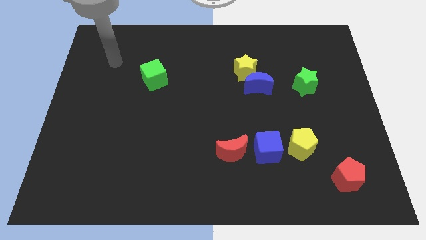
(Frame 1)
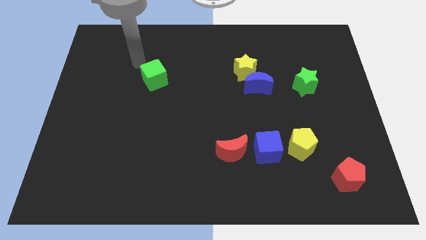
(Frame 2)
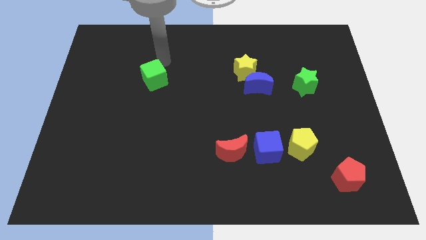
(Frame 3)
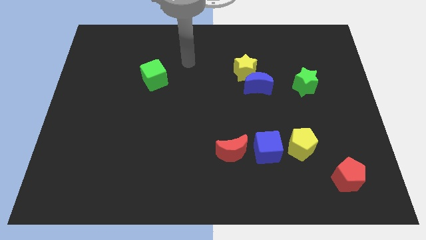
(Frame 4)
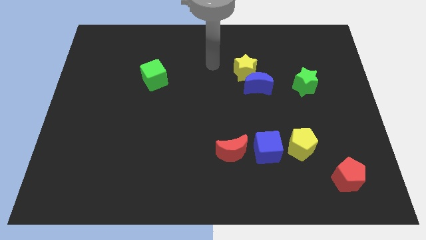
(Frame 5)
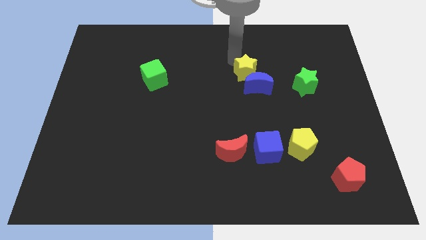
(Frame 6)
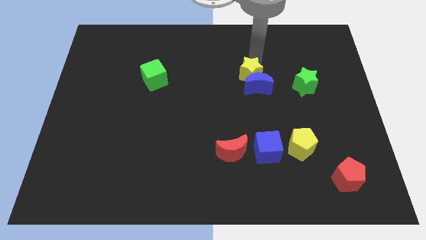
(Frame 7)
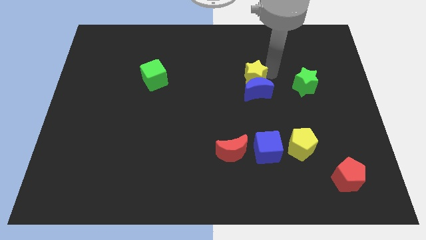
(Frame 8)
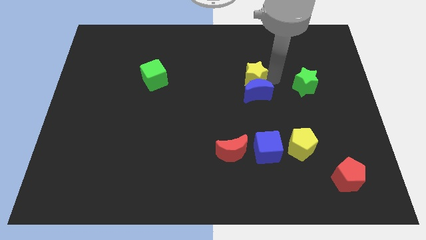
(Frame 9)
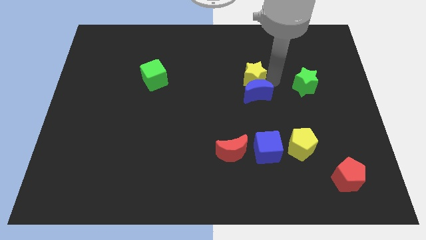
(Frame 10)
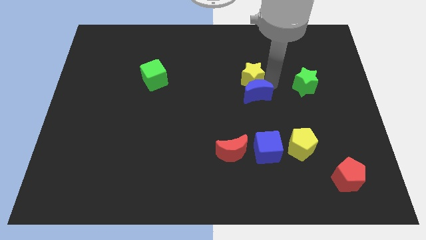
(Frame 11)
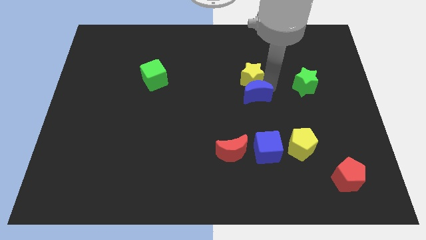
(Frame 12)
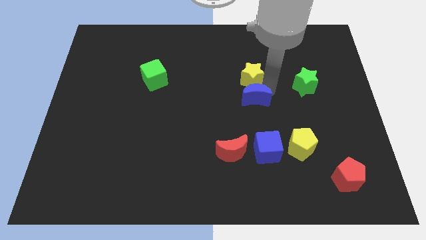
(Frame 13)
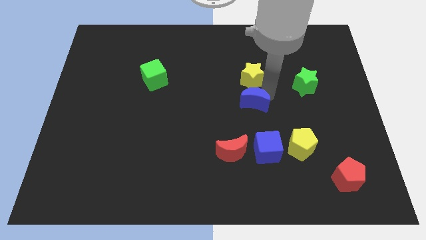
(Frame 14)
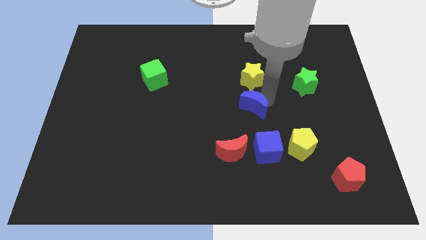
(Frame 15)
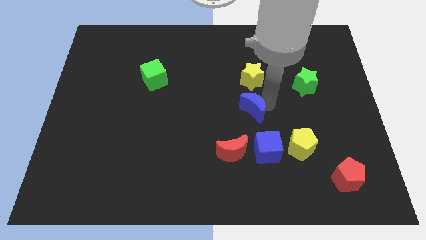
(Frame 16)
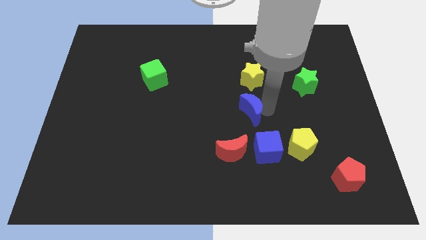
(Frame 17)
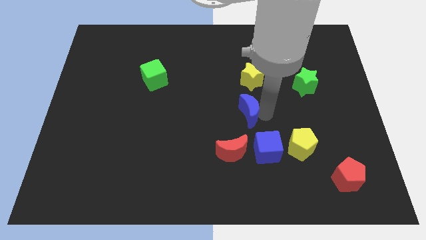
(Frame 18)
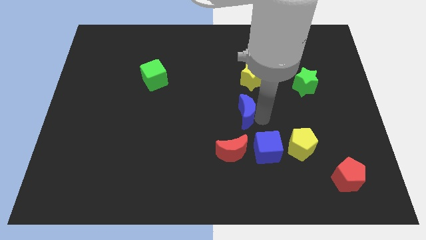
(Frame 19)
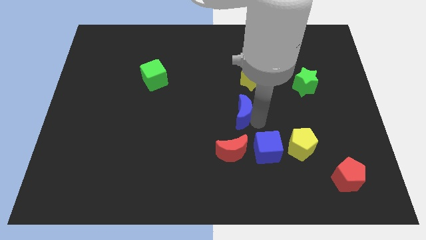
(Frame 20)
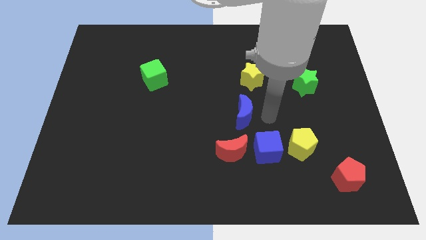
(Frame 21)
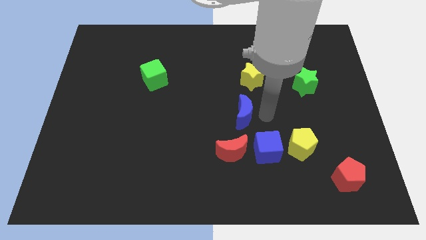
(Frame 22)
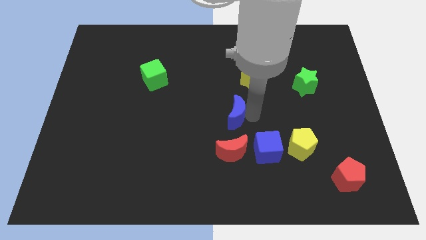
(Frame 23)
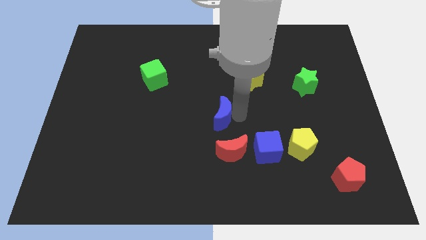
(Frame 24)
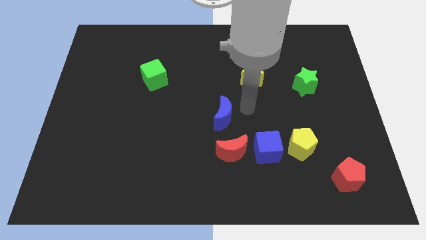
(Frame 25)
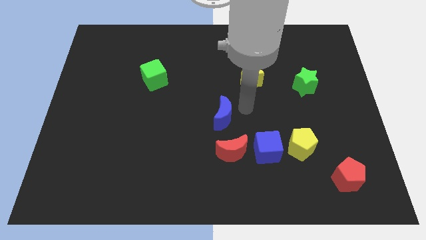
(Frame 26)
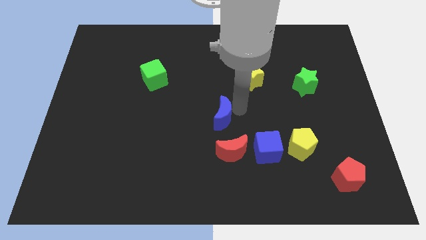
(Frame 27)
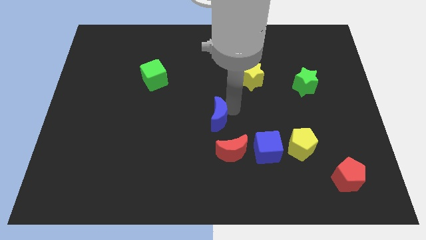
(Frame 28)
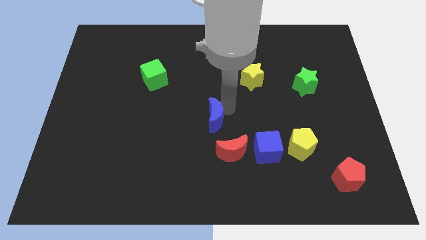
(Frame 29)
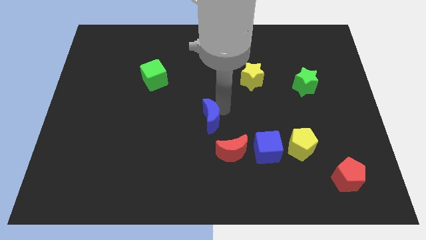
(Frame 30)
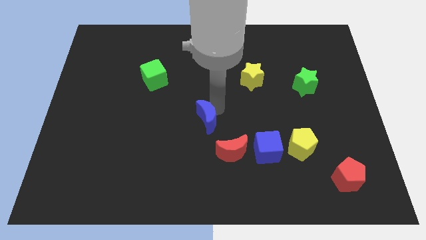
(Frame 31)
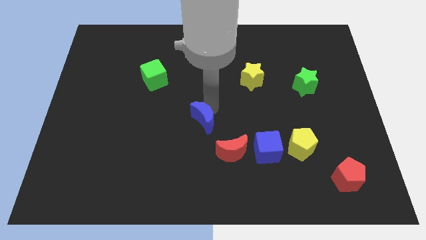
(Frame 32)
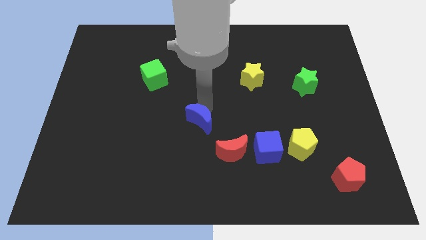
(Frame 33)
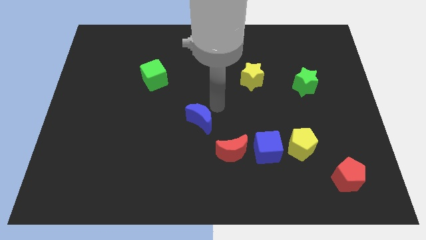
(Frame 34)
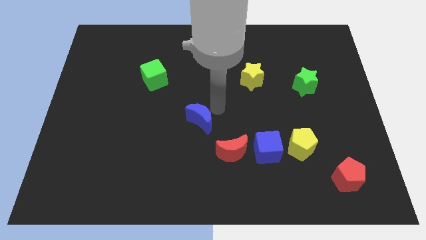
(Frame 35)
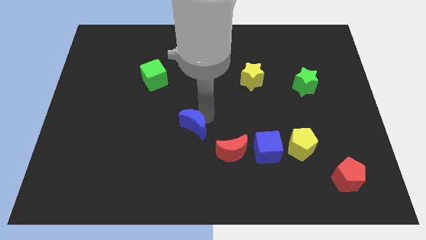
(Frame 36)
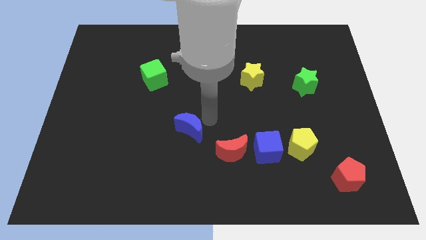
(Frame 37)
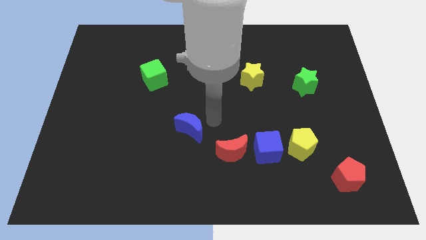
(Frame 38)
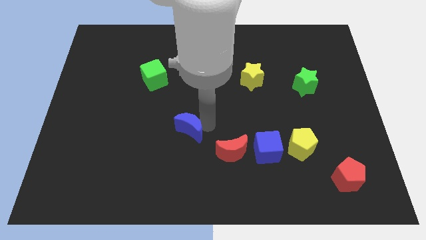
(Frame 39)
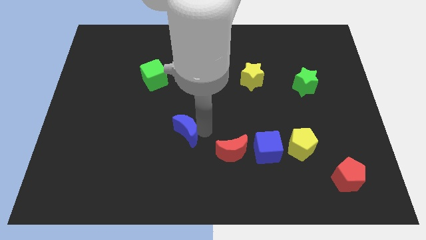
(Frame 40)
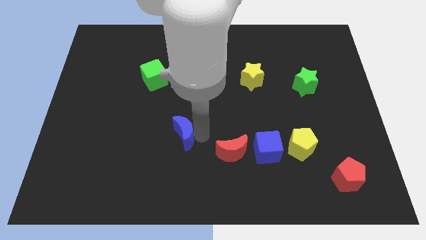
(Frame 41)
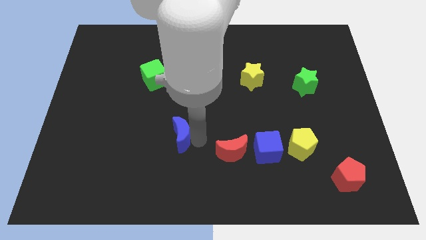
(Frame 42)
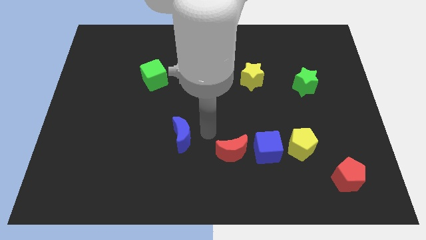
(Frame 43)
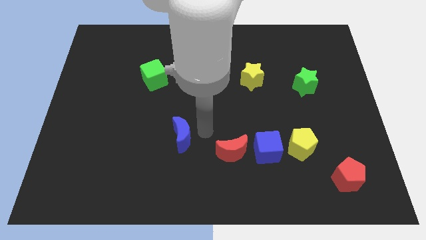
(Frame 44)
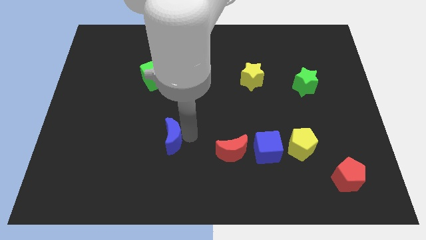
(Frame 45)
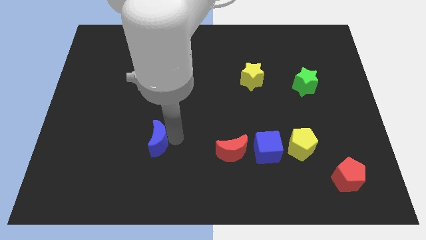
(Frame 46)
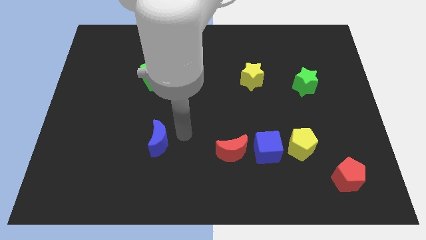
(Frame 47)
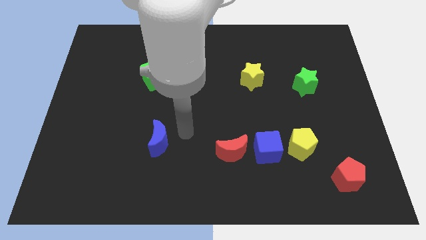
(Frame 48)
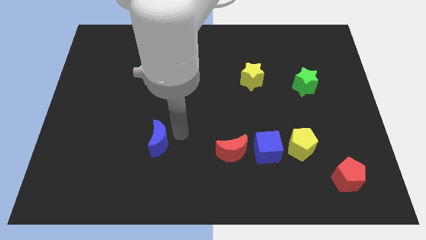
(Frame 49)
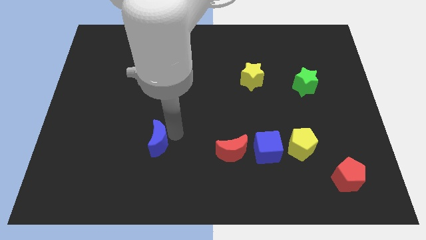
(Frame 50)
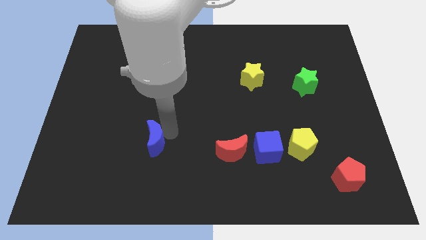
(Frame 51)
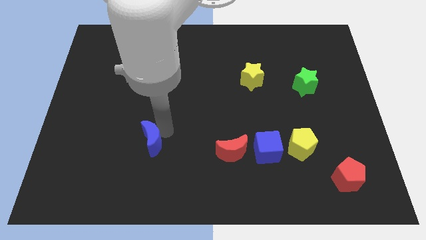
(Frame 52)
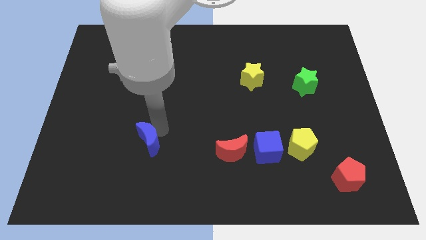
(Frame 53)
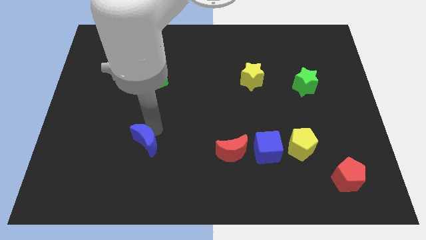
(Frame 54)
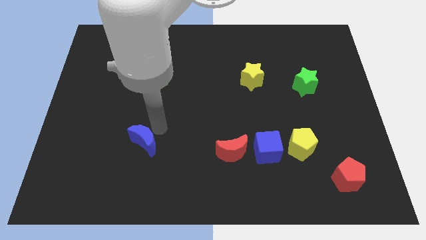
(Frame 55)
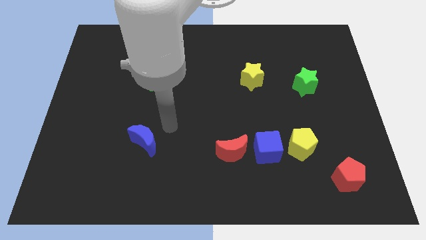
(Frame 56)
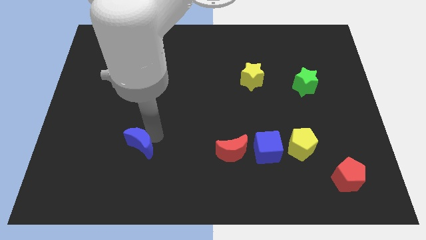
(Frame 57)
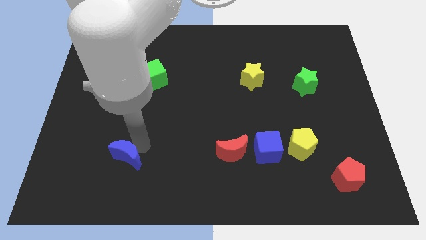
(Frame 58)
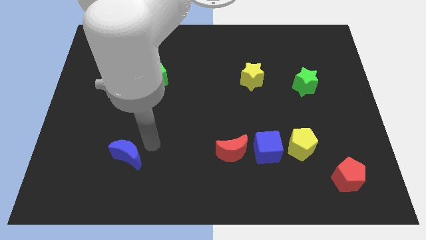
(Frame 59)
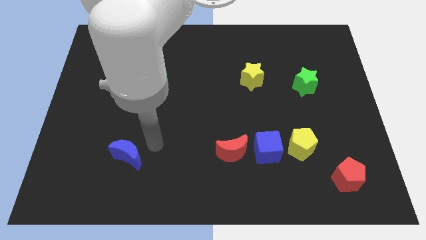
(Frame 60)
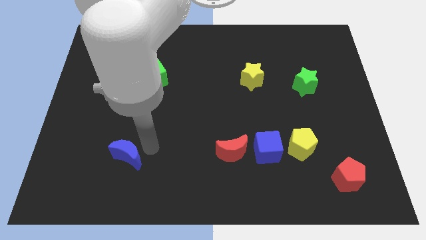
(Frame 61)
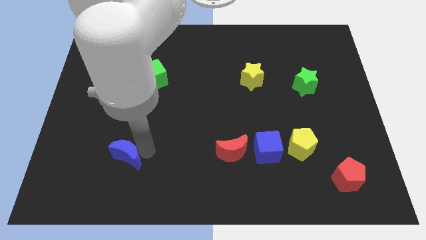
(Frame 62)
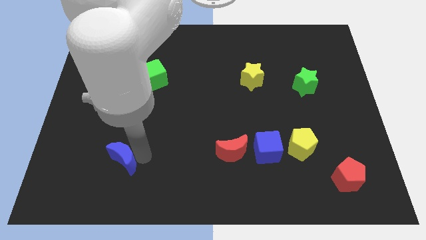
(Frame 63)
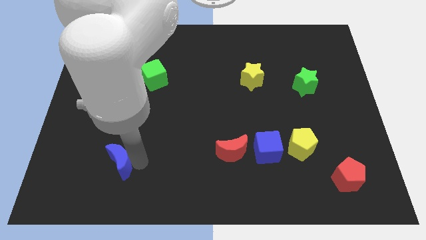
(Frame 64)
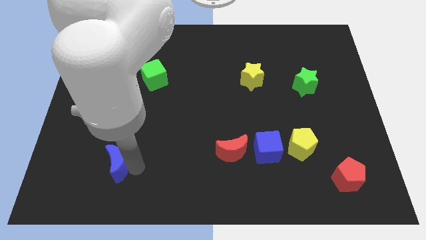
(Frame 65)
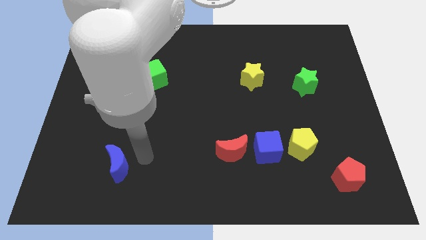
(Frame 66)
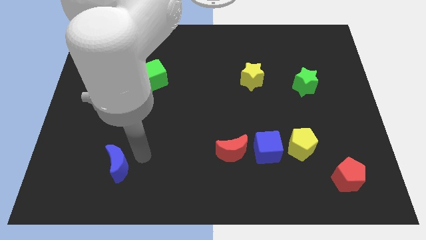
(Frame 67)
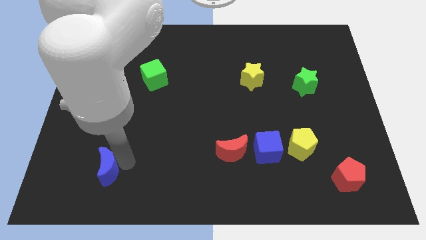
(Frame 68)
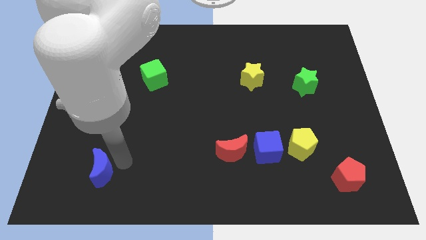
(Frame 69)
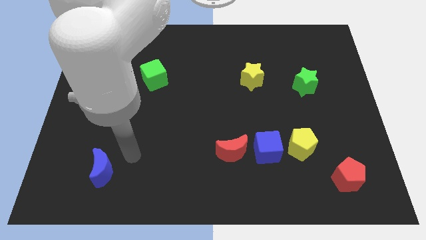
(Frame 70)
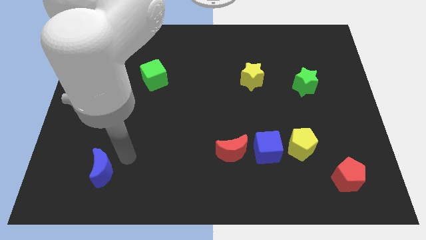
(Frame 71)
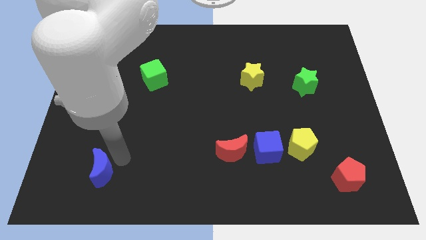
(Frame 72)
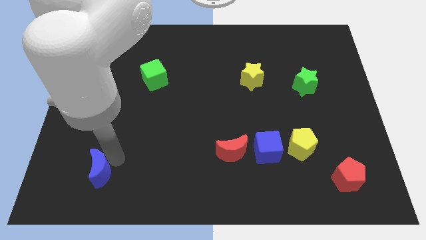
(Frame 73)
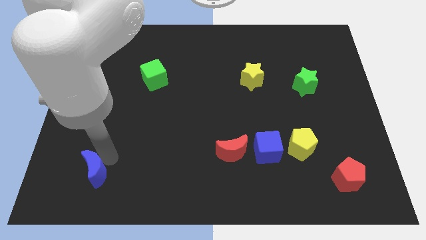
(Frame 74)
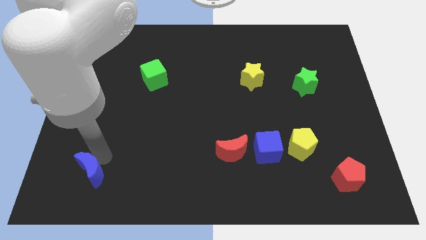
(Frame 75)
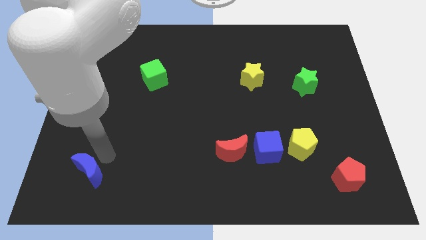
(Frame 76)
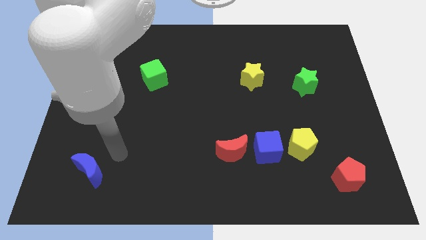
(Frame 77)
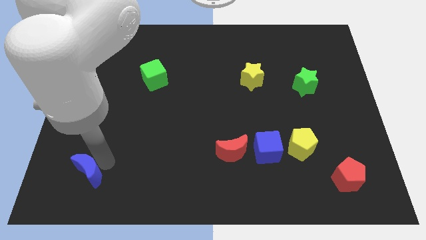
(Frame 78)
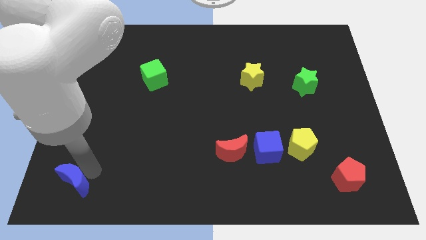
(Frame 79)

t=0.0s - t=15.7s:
slide the blue moon to the lower left corner
